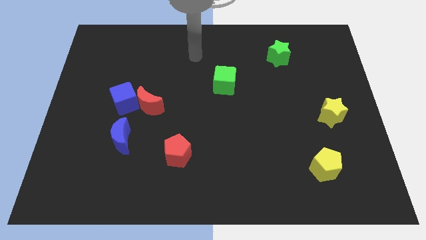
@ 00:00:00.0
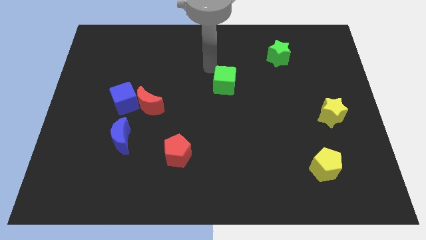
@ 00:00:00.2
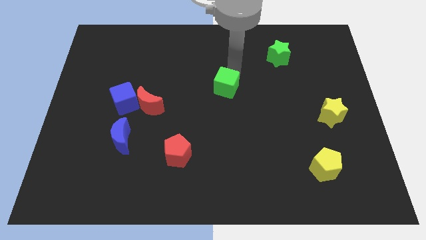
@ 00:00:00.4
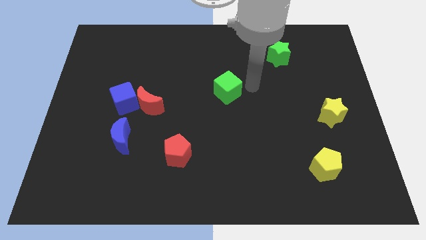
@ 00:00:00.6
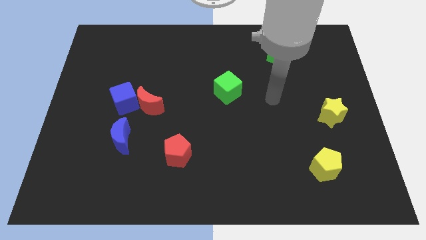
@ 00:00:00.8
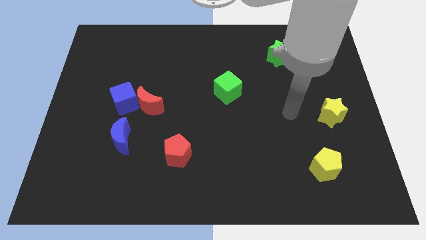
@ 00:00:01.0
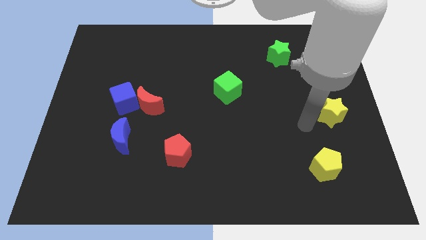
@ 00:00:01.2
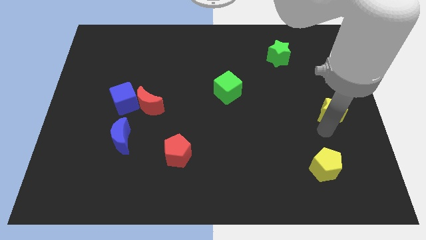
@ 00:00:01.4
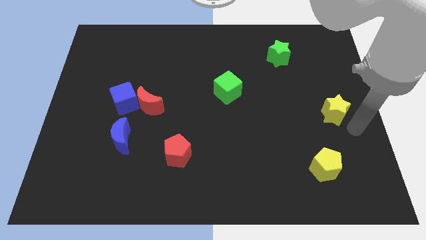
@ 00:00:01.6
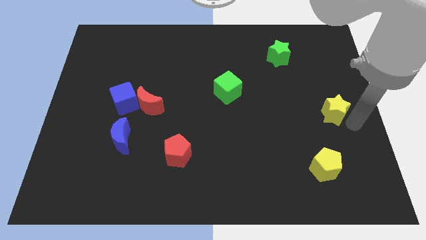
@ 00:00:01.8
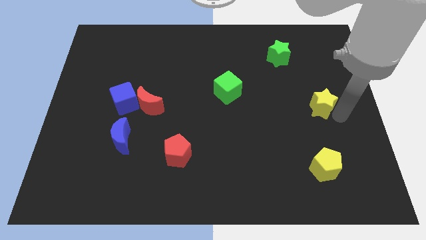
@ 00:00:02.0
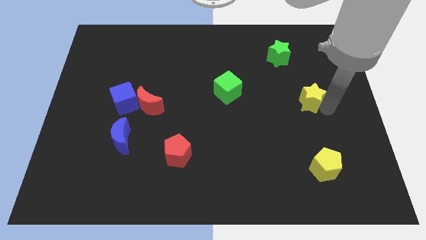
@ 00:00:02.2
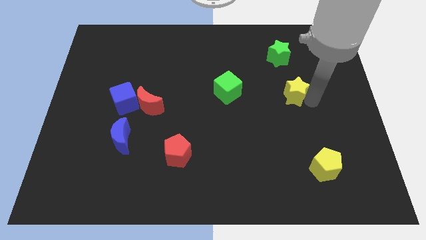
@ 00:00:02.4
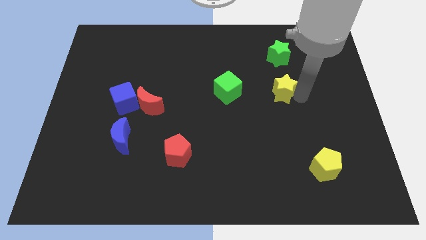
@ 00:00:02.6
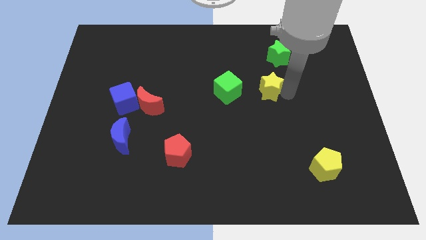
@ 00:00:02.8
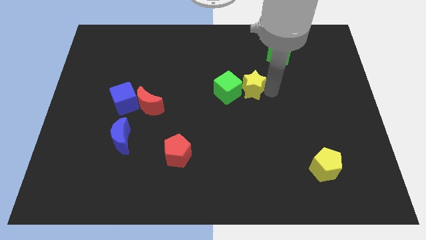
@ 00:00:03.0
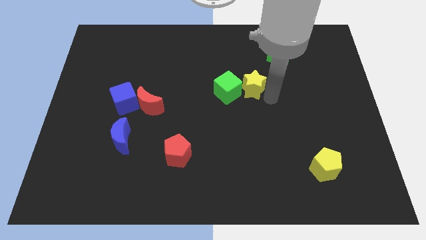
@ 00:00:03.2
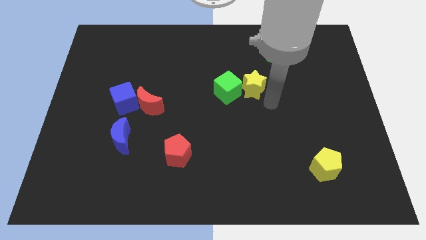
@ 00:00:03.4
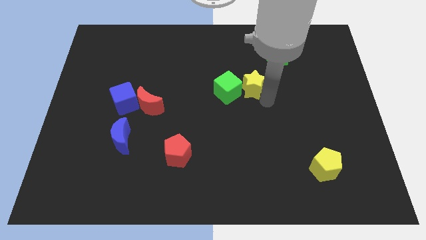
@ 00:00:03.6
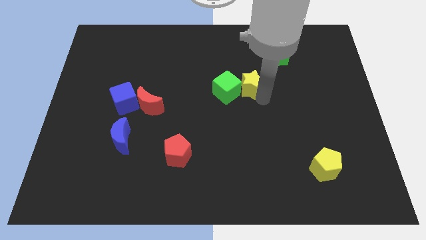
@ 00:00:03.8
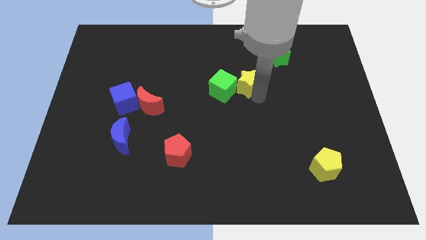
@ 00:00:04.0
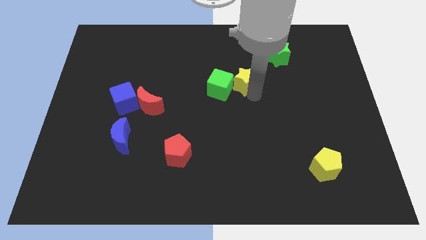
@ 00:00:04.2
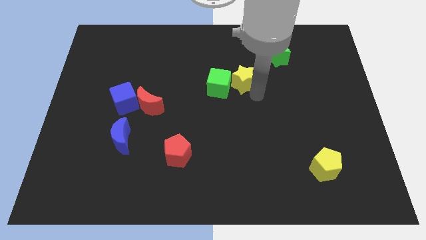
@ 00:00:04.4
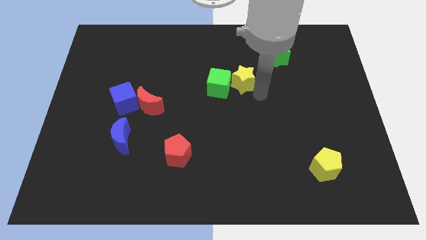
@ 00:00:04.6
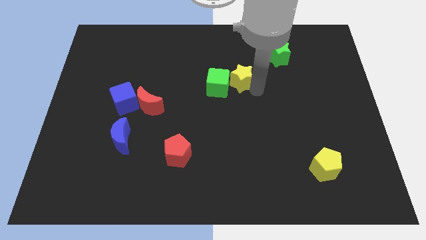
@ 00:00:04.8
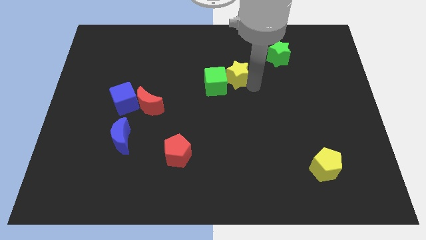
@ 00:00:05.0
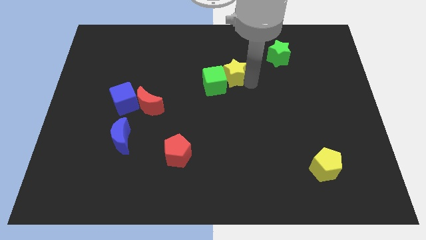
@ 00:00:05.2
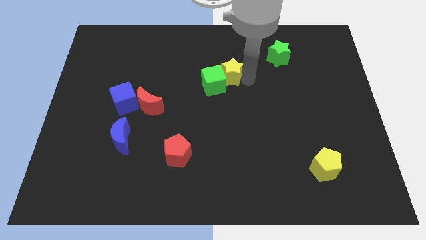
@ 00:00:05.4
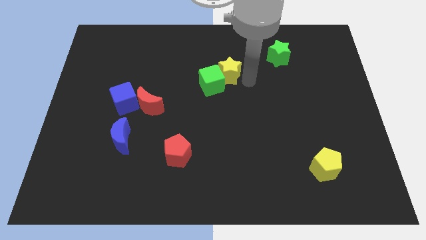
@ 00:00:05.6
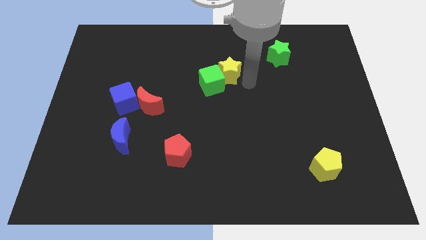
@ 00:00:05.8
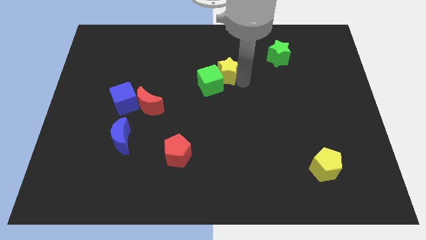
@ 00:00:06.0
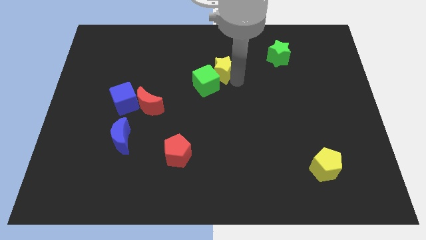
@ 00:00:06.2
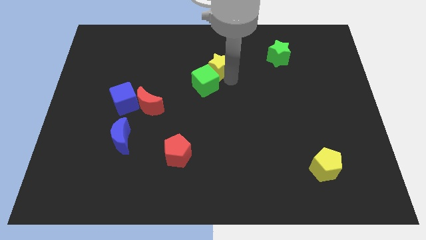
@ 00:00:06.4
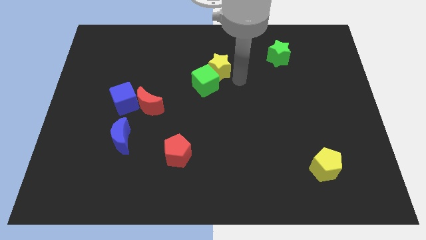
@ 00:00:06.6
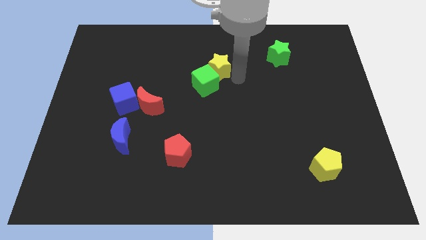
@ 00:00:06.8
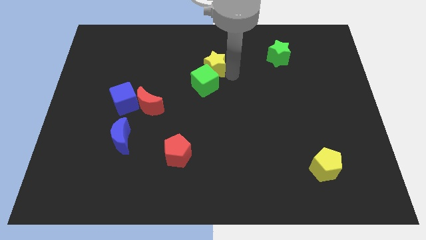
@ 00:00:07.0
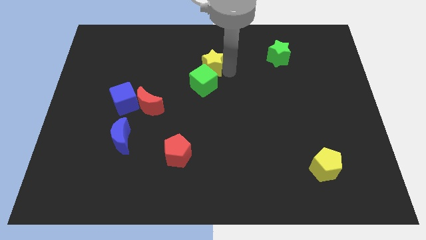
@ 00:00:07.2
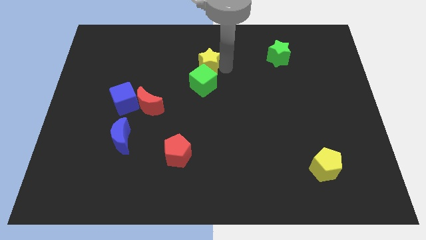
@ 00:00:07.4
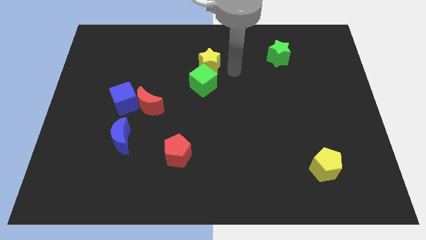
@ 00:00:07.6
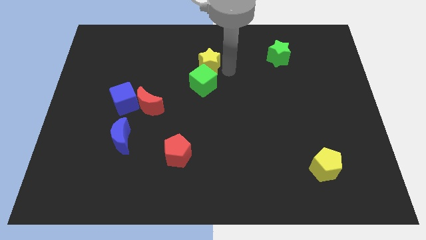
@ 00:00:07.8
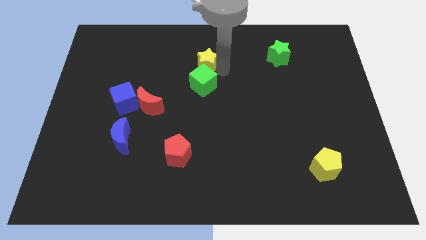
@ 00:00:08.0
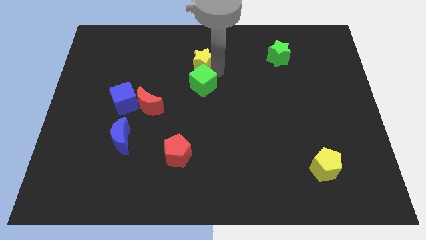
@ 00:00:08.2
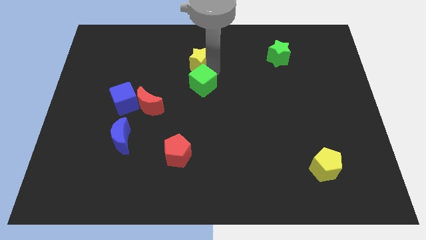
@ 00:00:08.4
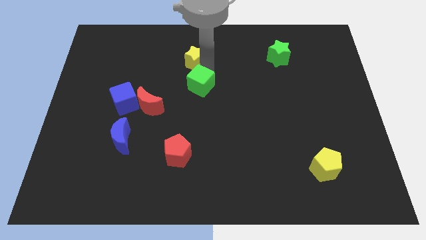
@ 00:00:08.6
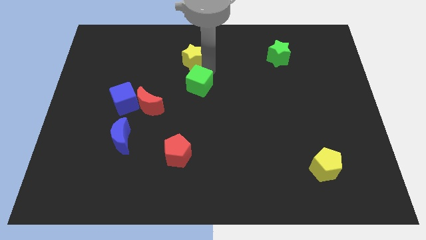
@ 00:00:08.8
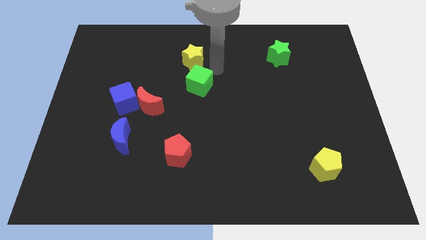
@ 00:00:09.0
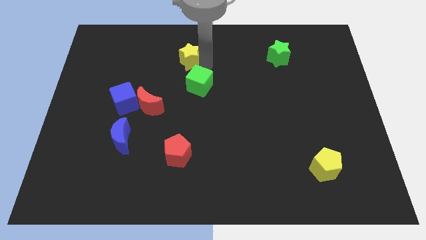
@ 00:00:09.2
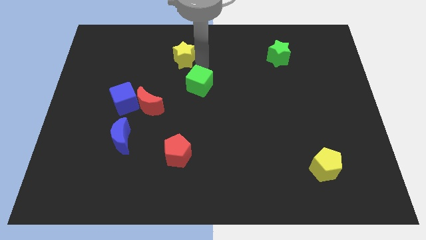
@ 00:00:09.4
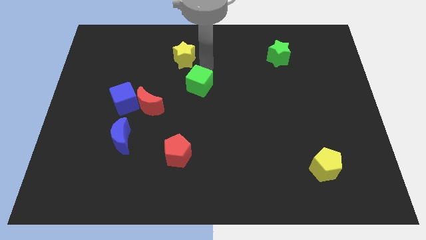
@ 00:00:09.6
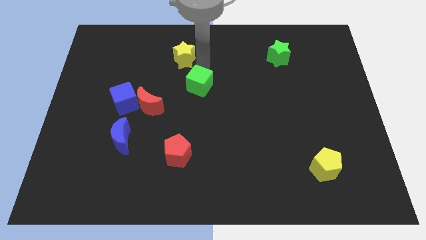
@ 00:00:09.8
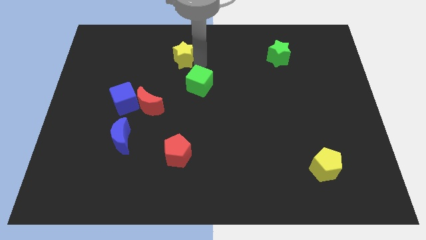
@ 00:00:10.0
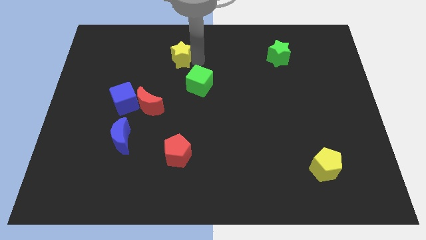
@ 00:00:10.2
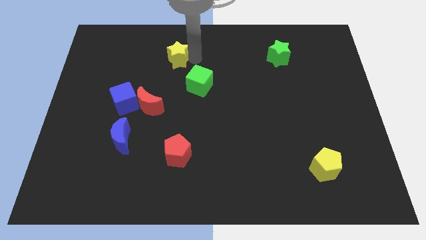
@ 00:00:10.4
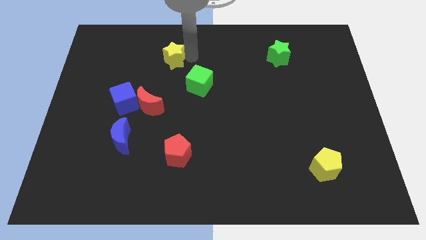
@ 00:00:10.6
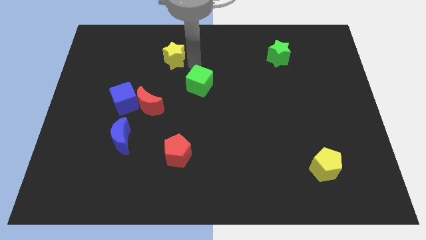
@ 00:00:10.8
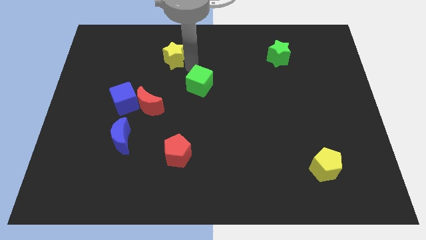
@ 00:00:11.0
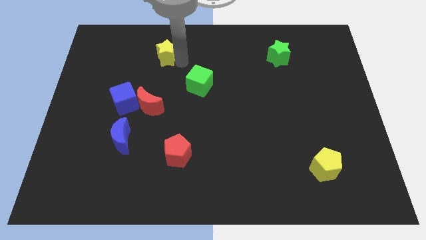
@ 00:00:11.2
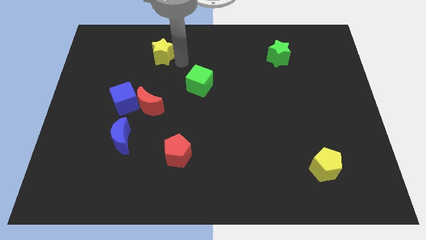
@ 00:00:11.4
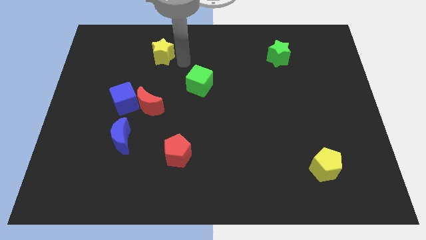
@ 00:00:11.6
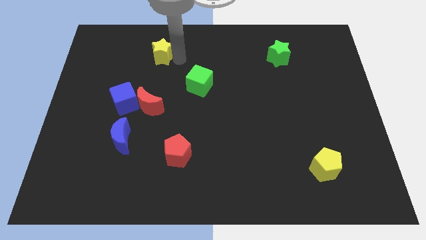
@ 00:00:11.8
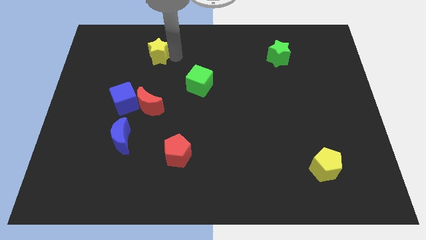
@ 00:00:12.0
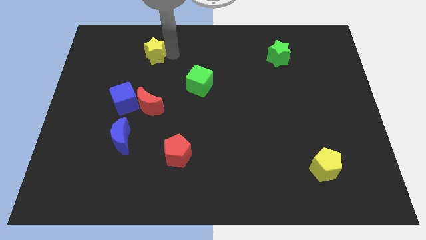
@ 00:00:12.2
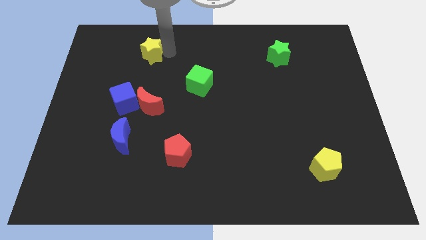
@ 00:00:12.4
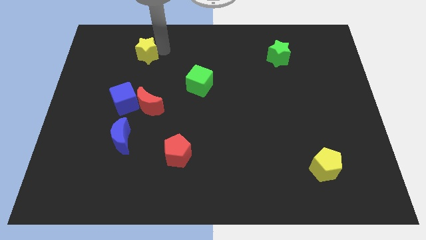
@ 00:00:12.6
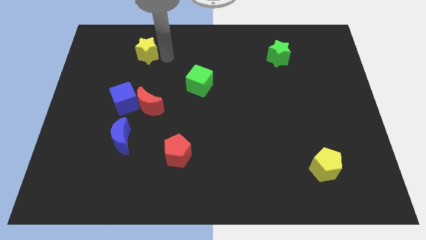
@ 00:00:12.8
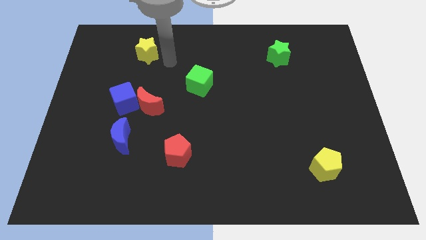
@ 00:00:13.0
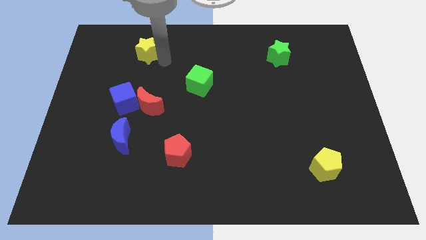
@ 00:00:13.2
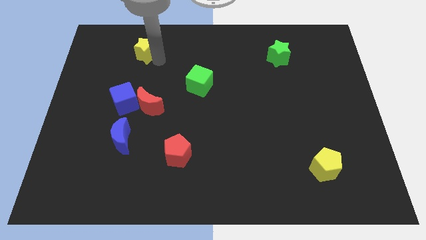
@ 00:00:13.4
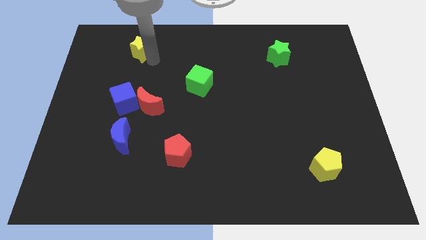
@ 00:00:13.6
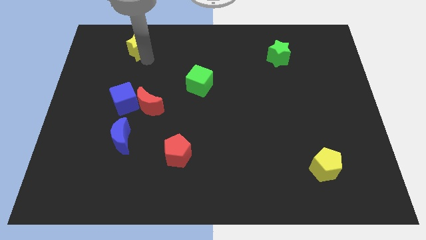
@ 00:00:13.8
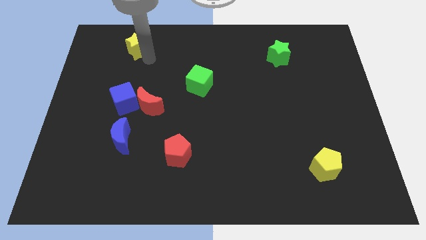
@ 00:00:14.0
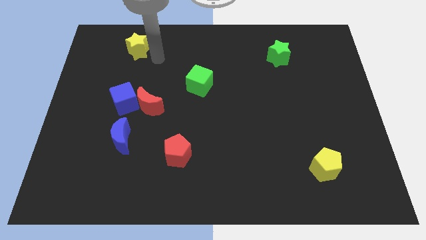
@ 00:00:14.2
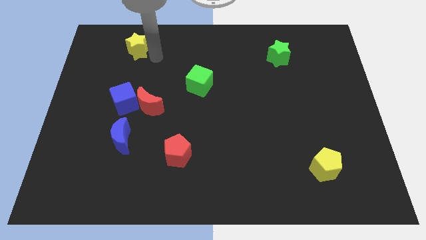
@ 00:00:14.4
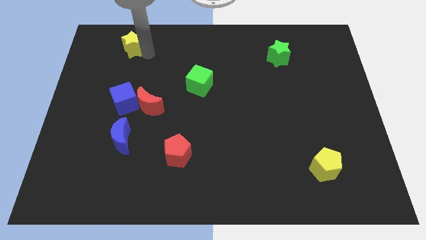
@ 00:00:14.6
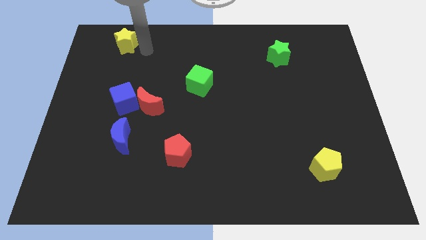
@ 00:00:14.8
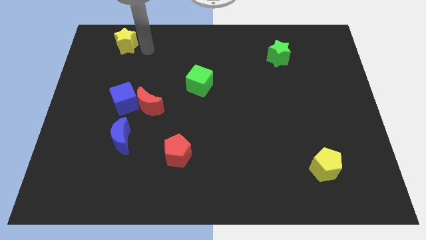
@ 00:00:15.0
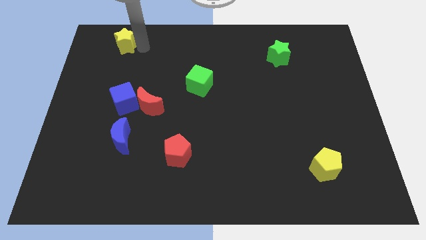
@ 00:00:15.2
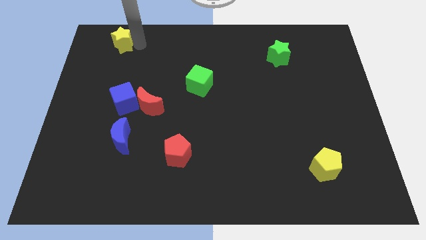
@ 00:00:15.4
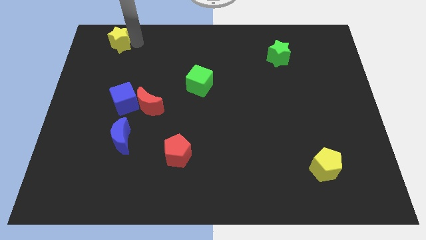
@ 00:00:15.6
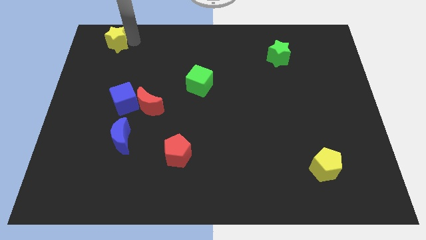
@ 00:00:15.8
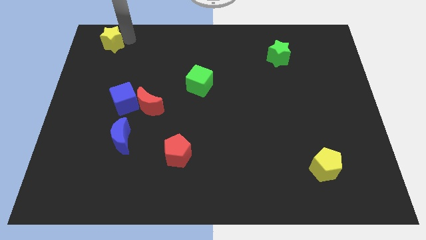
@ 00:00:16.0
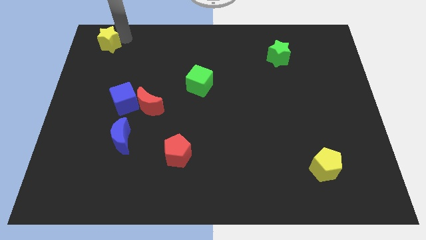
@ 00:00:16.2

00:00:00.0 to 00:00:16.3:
put the yellow star to the top left
